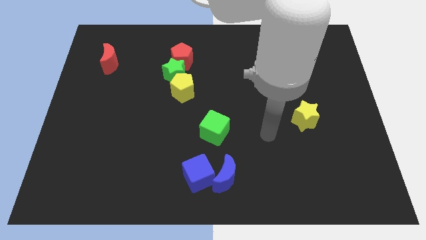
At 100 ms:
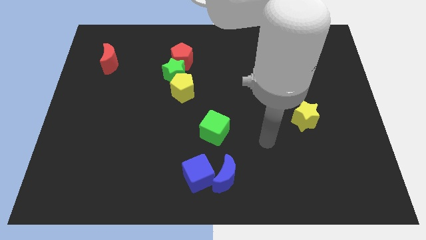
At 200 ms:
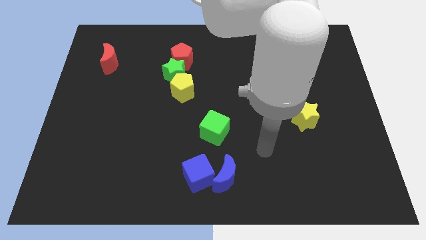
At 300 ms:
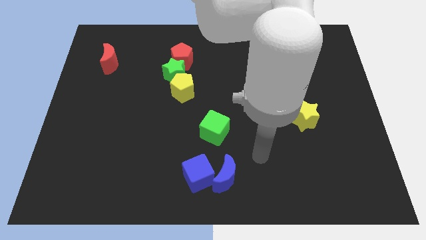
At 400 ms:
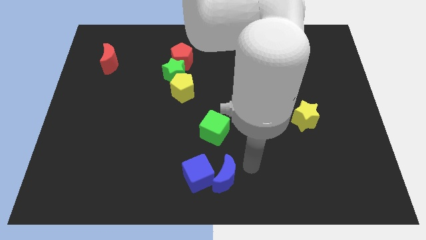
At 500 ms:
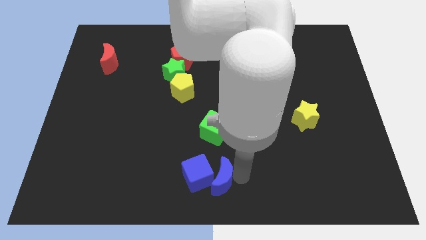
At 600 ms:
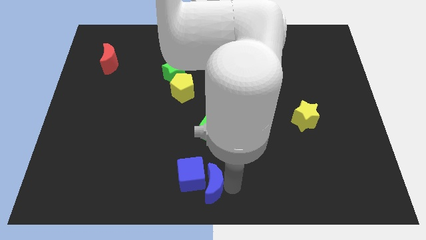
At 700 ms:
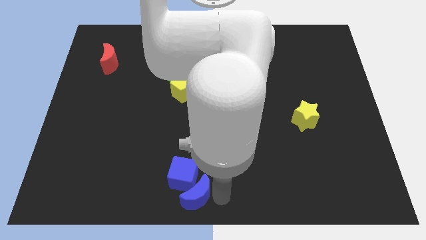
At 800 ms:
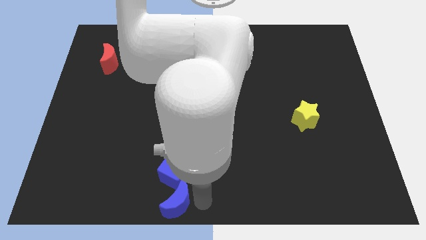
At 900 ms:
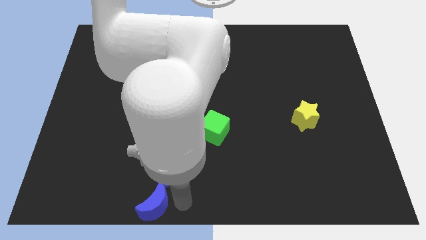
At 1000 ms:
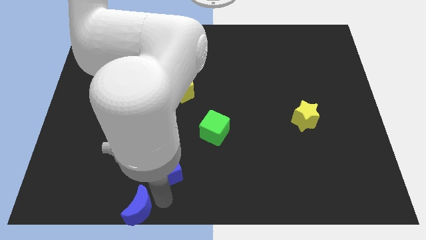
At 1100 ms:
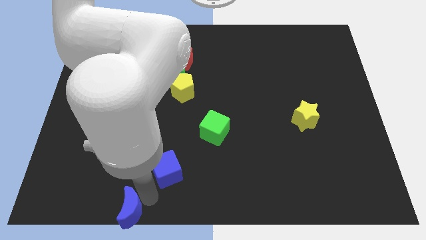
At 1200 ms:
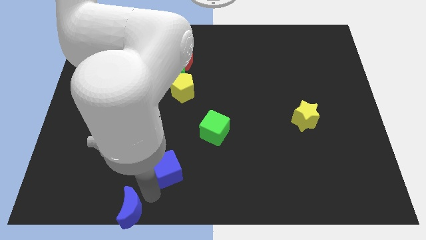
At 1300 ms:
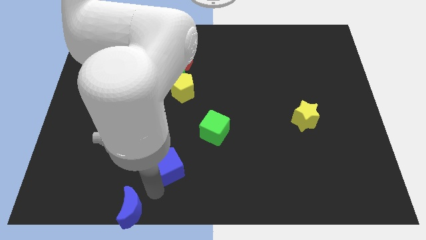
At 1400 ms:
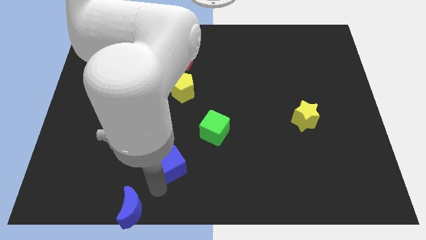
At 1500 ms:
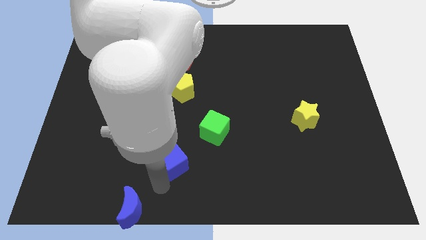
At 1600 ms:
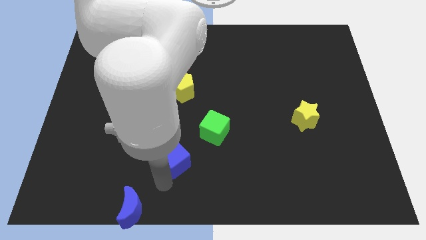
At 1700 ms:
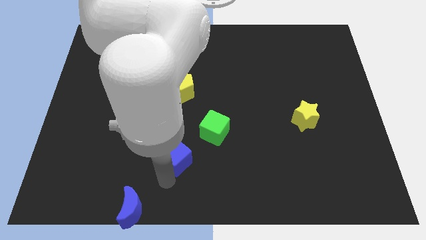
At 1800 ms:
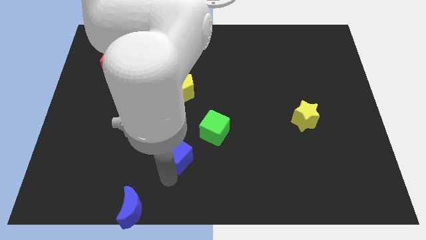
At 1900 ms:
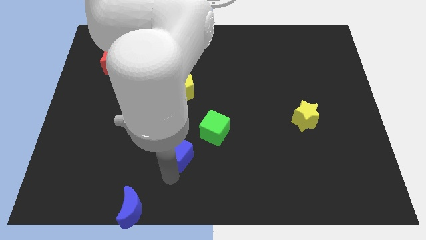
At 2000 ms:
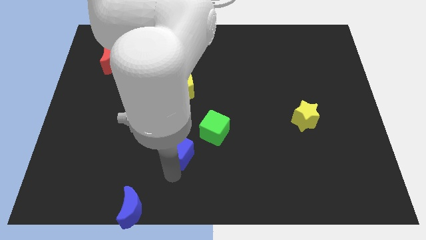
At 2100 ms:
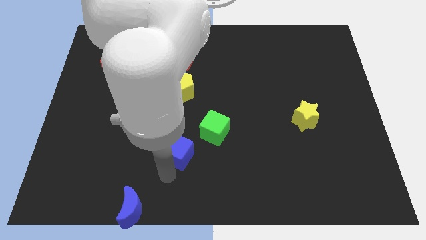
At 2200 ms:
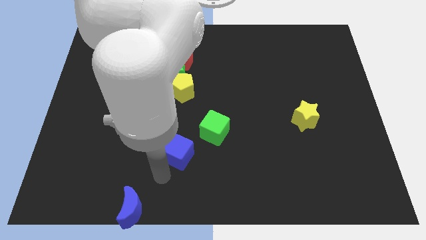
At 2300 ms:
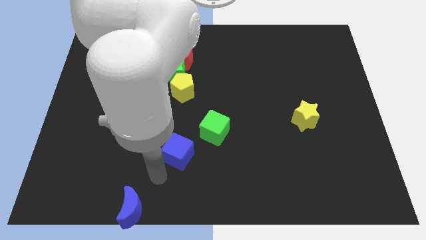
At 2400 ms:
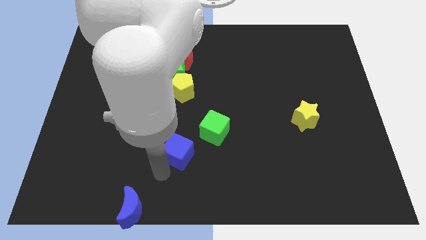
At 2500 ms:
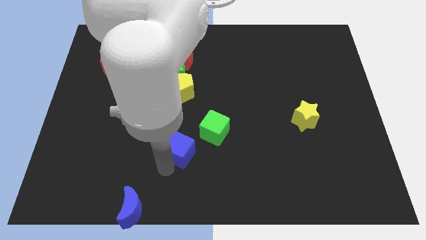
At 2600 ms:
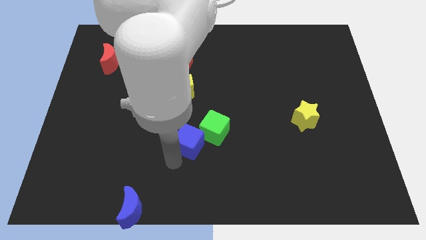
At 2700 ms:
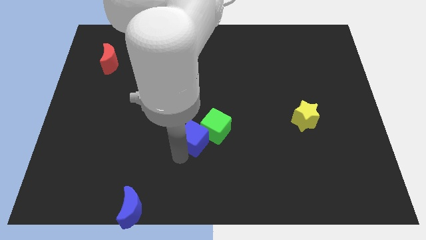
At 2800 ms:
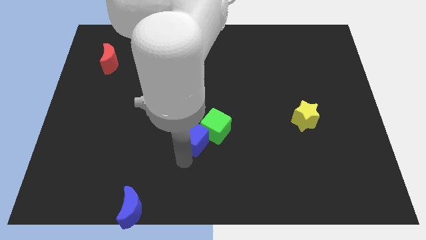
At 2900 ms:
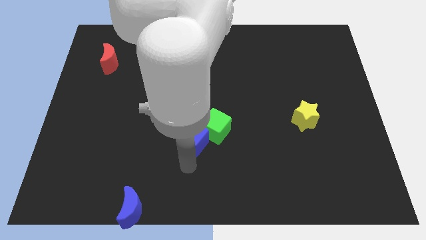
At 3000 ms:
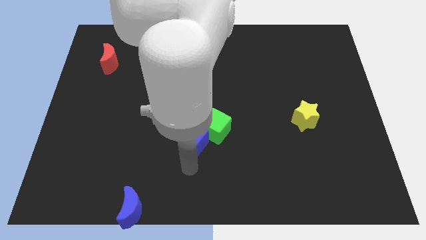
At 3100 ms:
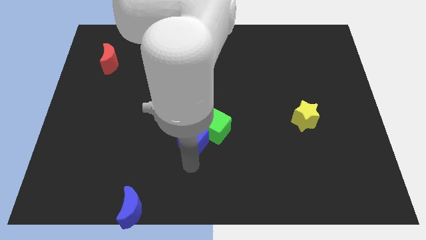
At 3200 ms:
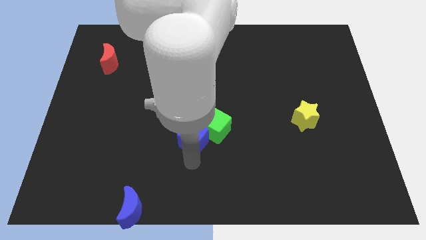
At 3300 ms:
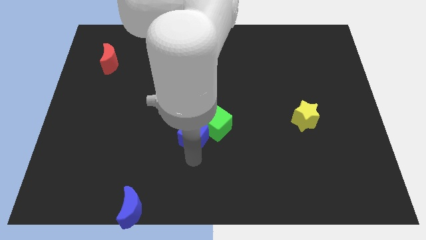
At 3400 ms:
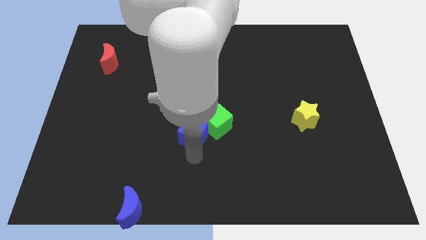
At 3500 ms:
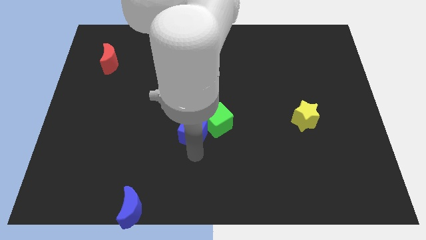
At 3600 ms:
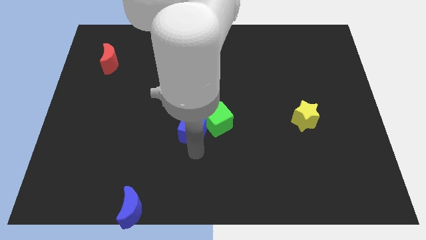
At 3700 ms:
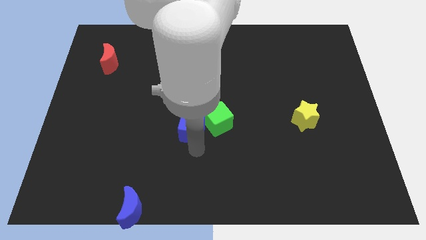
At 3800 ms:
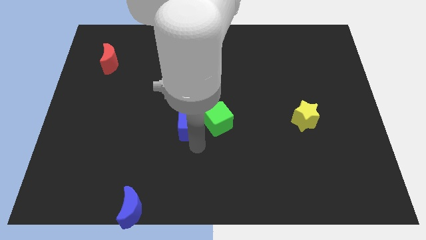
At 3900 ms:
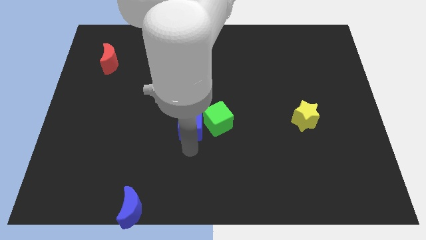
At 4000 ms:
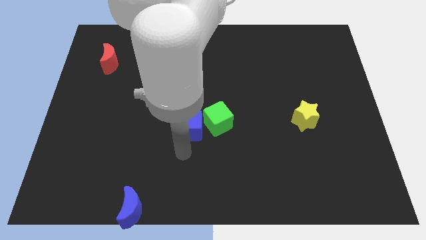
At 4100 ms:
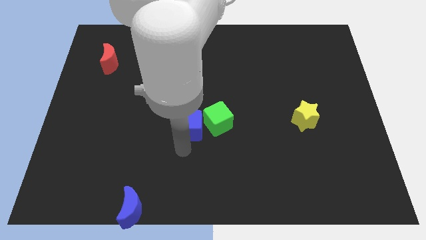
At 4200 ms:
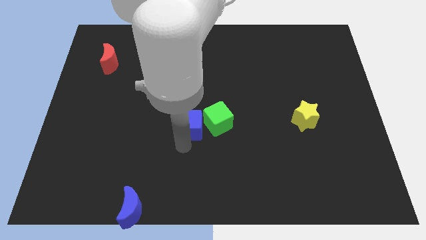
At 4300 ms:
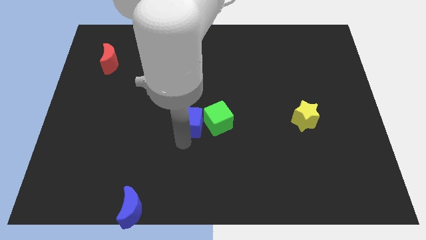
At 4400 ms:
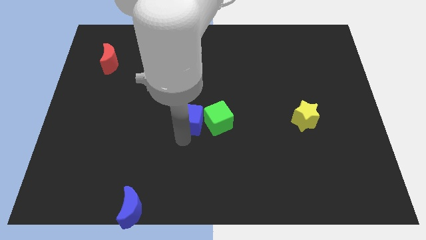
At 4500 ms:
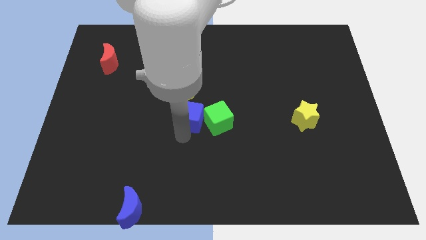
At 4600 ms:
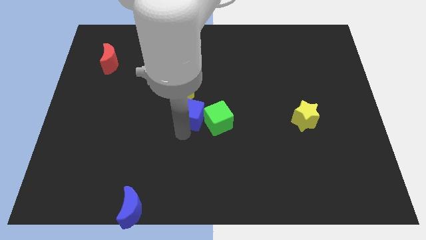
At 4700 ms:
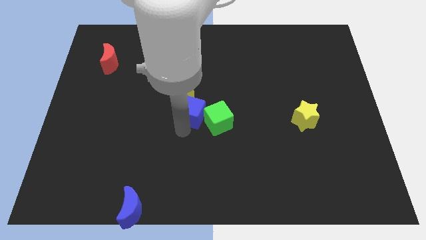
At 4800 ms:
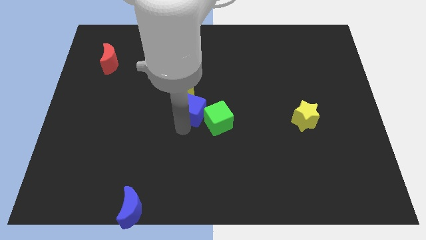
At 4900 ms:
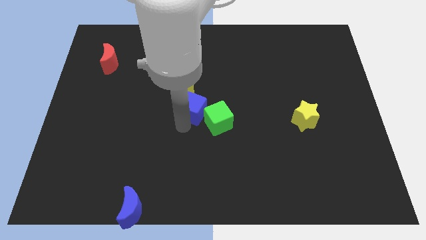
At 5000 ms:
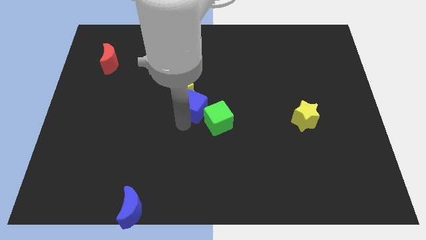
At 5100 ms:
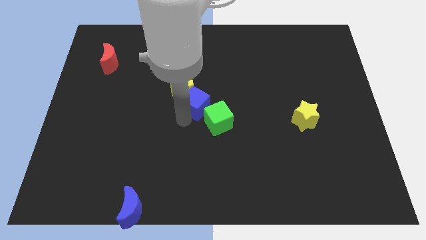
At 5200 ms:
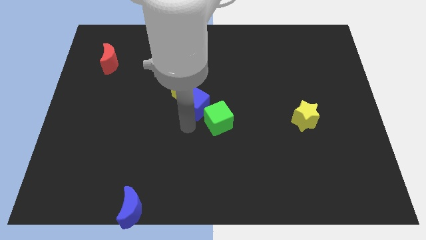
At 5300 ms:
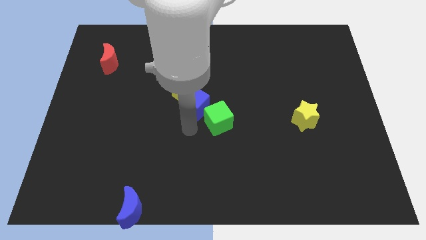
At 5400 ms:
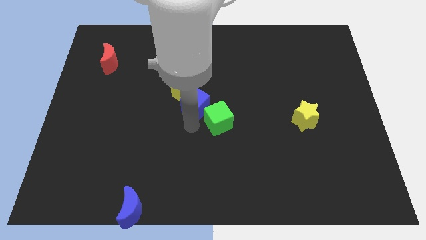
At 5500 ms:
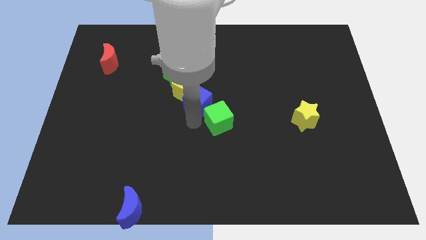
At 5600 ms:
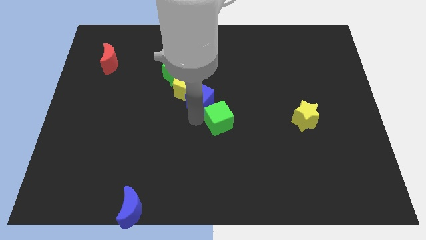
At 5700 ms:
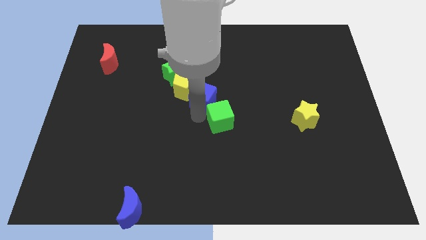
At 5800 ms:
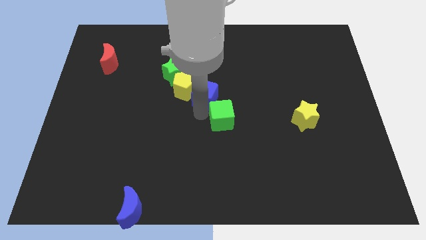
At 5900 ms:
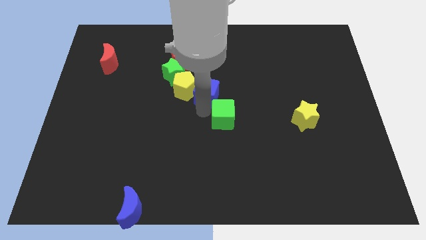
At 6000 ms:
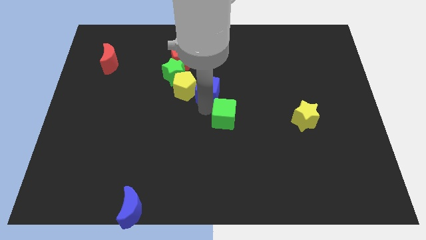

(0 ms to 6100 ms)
put the blue cube to the top right side of the yellow pentagon

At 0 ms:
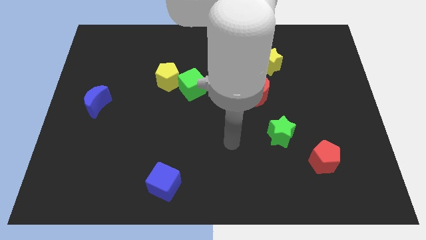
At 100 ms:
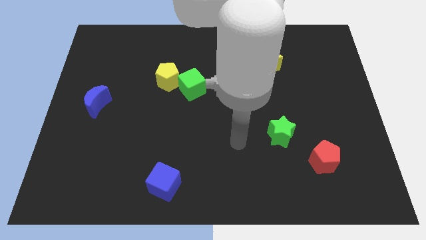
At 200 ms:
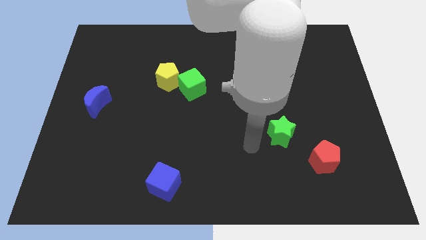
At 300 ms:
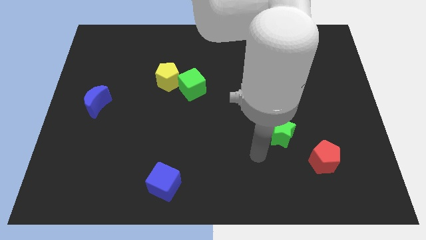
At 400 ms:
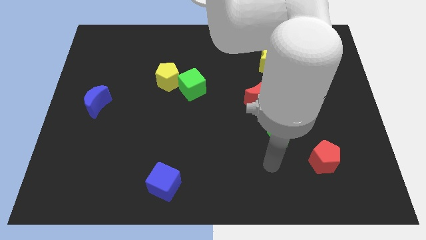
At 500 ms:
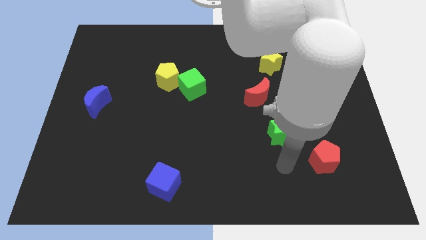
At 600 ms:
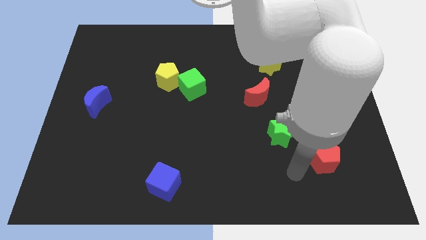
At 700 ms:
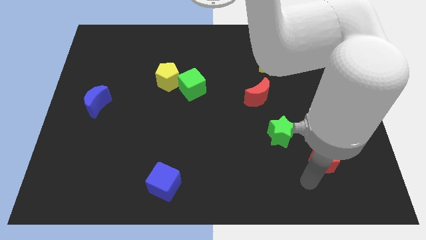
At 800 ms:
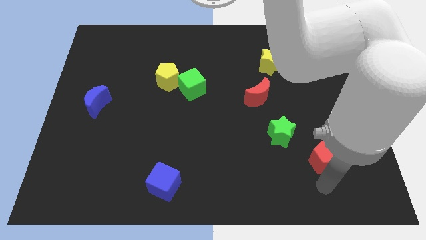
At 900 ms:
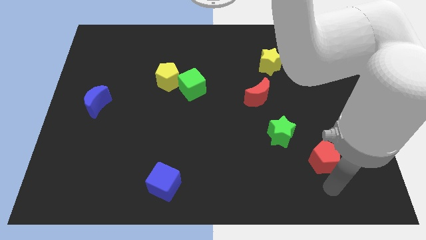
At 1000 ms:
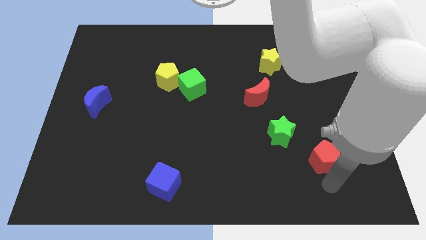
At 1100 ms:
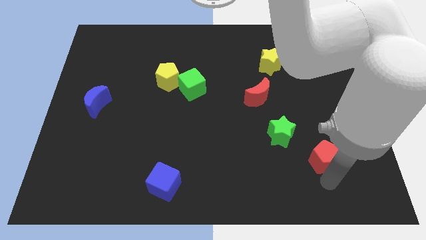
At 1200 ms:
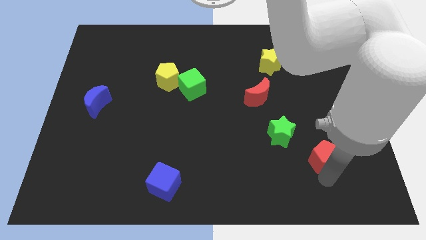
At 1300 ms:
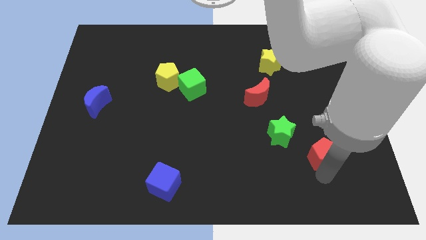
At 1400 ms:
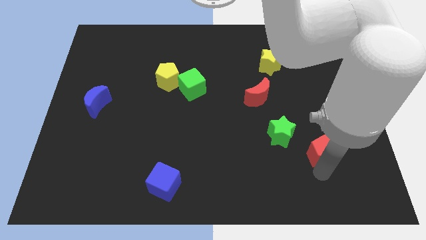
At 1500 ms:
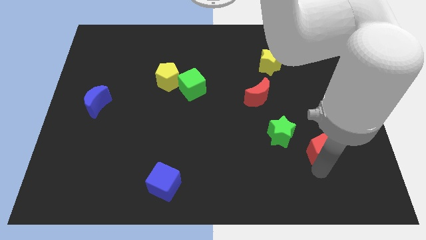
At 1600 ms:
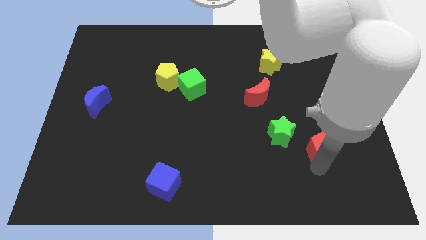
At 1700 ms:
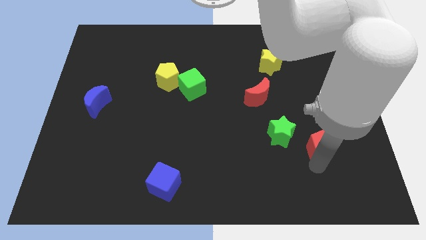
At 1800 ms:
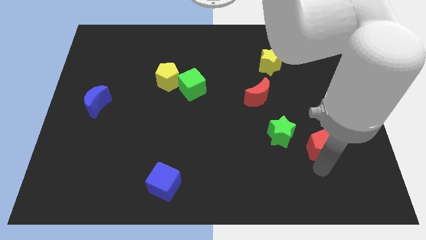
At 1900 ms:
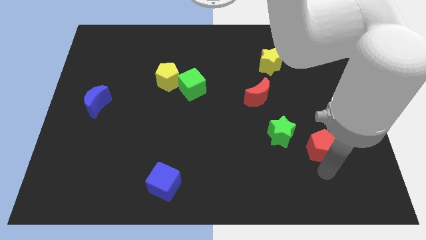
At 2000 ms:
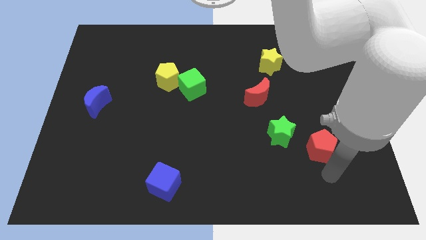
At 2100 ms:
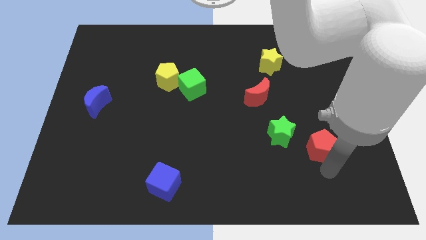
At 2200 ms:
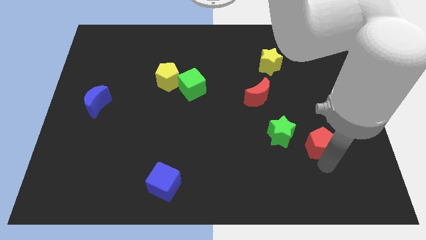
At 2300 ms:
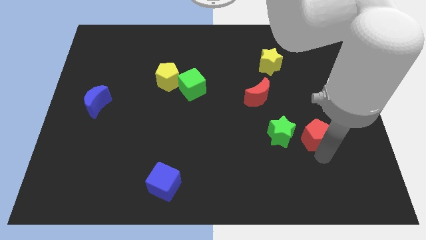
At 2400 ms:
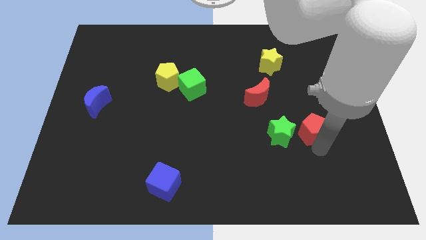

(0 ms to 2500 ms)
slide the red pentagon diagonally up and to the right of the green star
